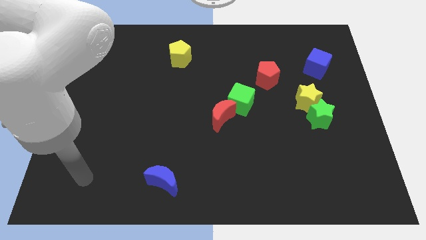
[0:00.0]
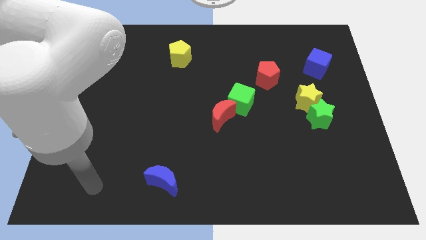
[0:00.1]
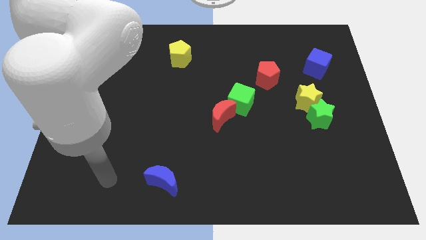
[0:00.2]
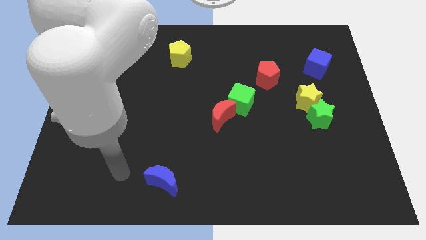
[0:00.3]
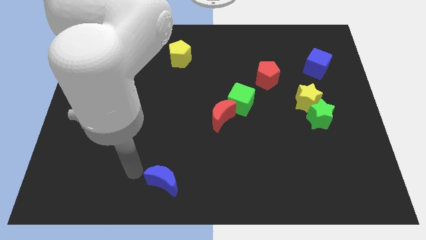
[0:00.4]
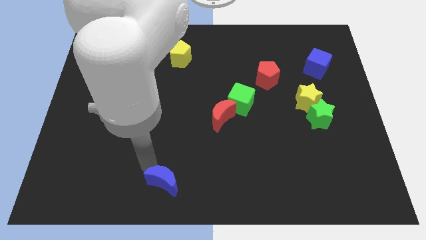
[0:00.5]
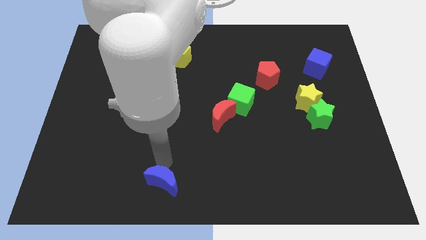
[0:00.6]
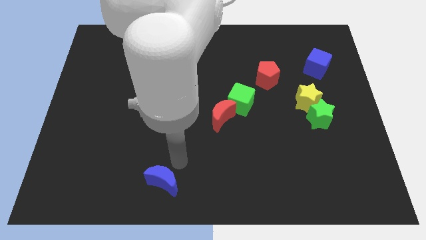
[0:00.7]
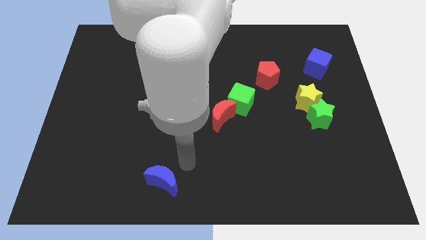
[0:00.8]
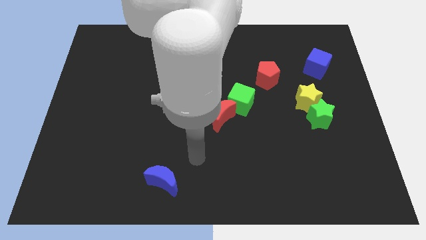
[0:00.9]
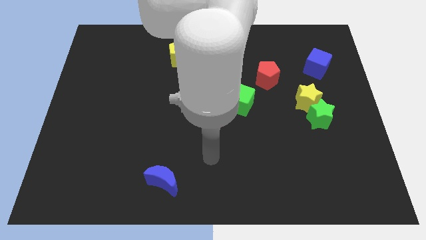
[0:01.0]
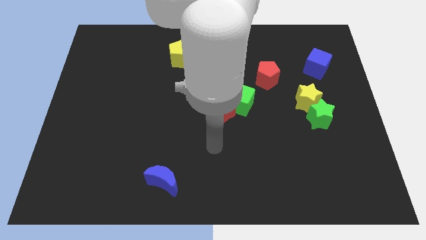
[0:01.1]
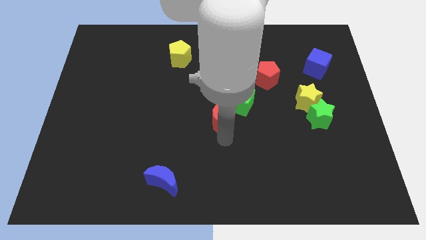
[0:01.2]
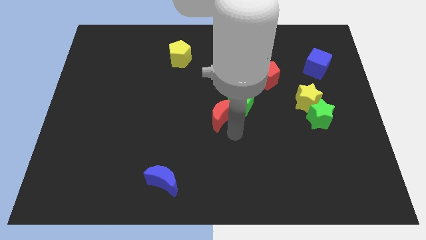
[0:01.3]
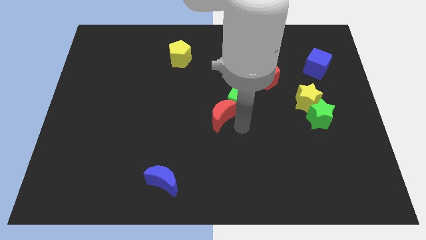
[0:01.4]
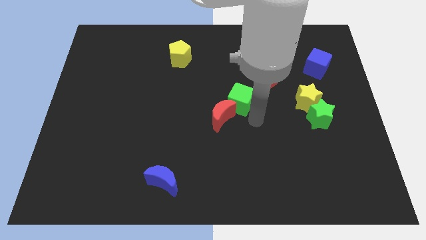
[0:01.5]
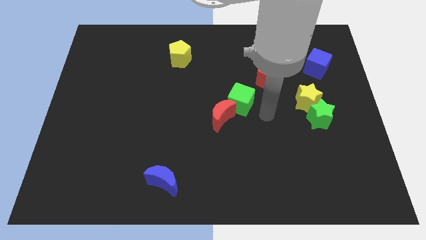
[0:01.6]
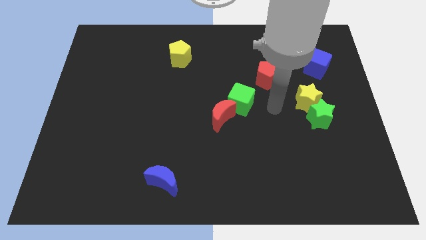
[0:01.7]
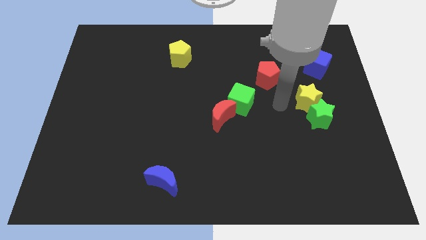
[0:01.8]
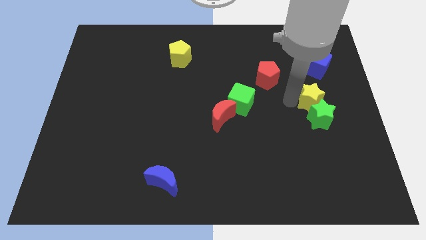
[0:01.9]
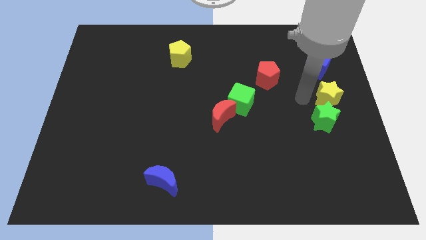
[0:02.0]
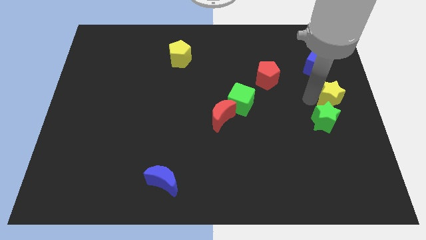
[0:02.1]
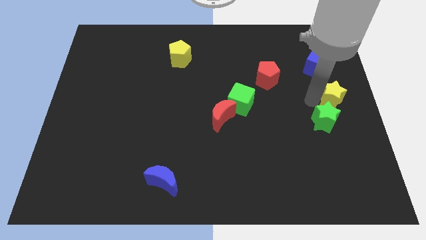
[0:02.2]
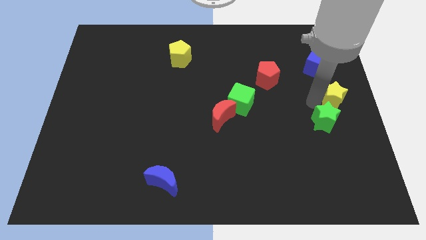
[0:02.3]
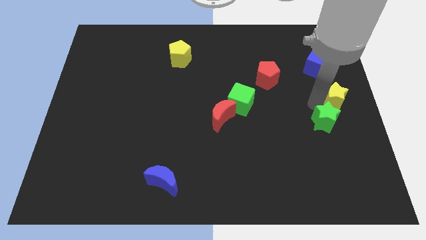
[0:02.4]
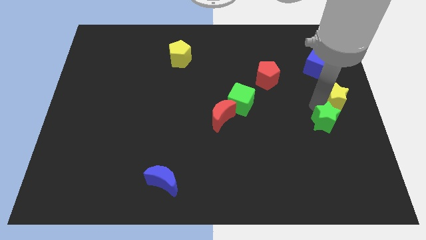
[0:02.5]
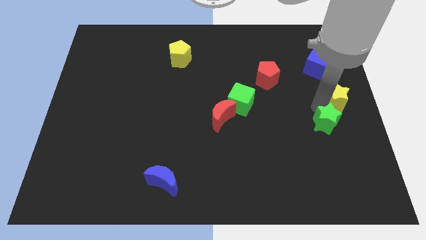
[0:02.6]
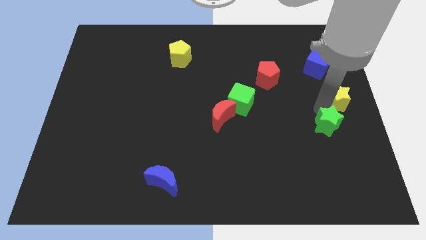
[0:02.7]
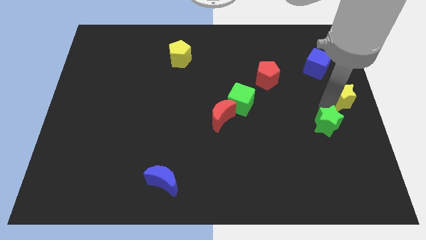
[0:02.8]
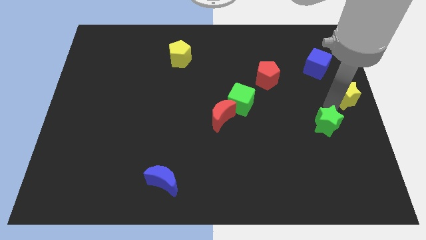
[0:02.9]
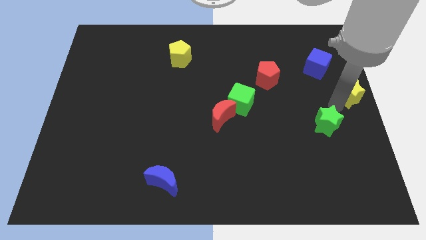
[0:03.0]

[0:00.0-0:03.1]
move the green star away from the yellow star

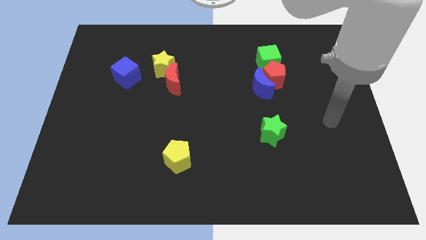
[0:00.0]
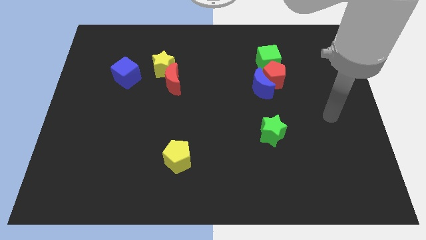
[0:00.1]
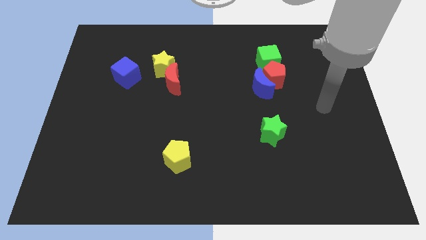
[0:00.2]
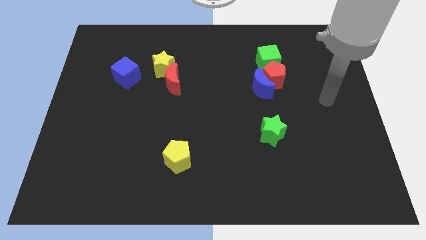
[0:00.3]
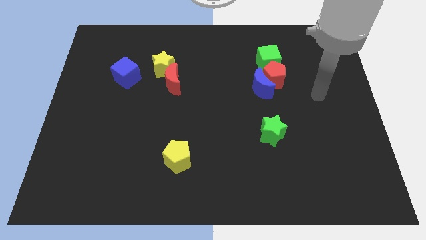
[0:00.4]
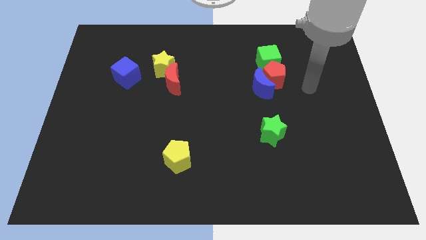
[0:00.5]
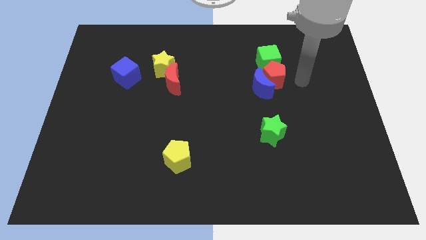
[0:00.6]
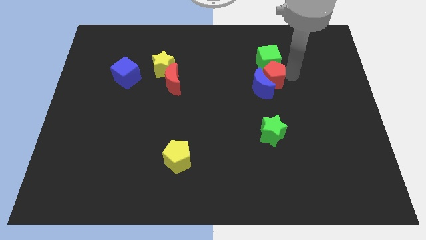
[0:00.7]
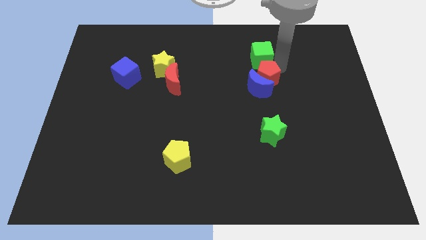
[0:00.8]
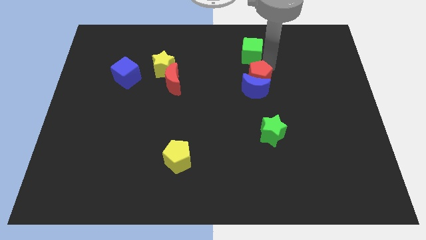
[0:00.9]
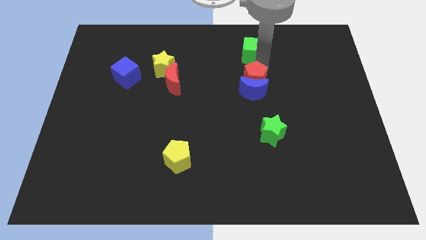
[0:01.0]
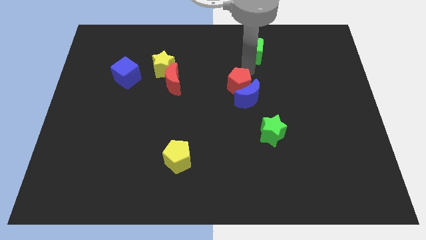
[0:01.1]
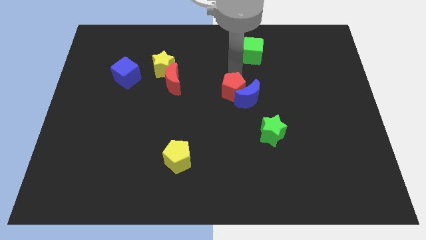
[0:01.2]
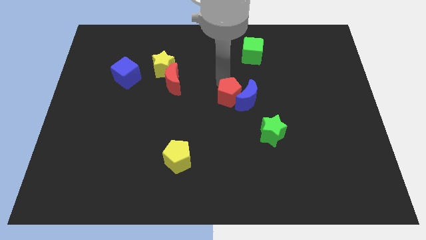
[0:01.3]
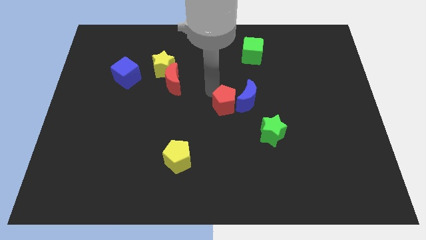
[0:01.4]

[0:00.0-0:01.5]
pull the red pentagon apart from the blue moon and green cube

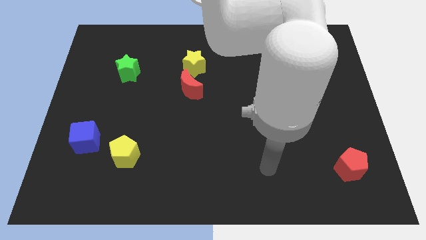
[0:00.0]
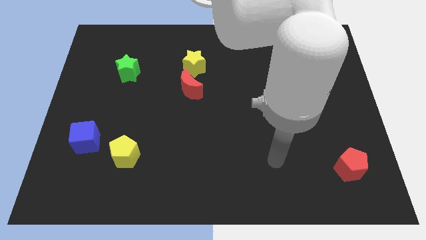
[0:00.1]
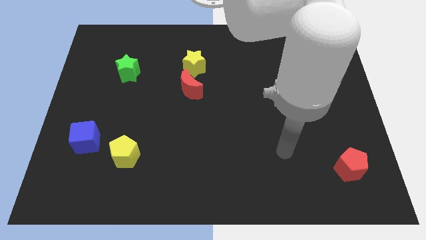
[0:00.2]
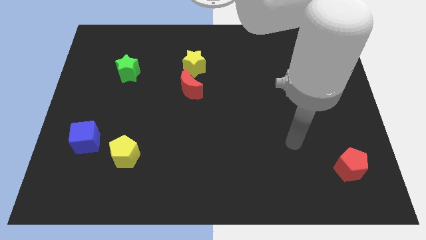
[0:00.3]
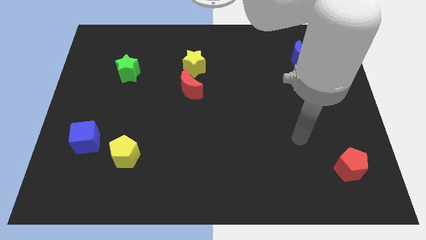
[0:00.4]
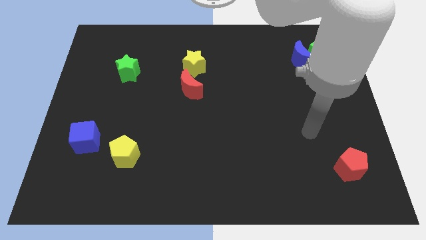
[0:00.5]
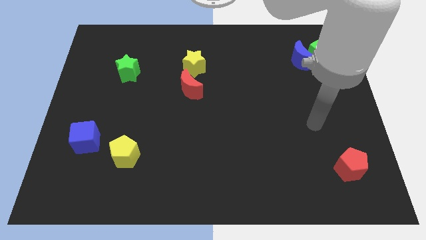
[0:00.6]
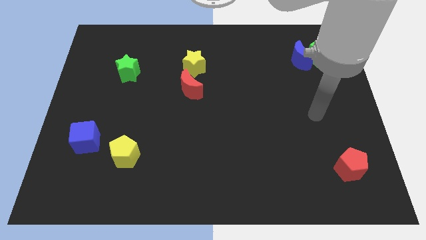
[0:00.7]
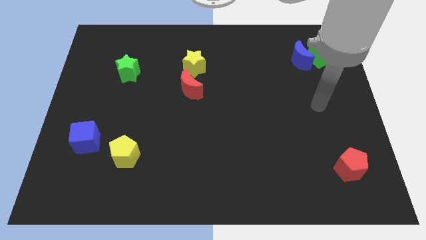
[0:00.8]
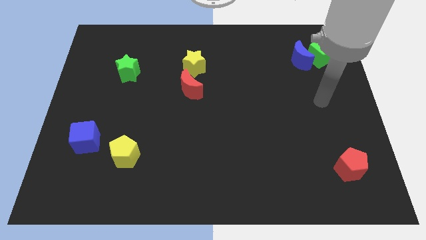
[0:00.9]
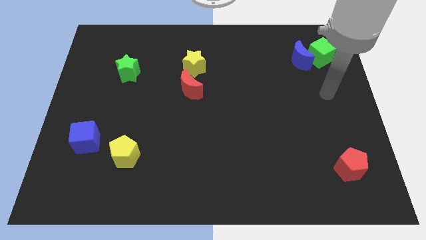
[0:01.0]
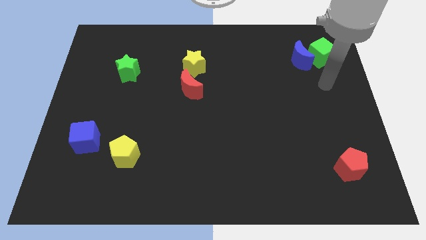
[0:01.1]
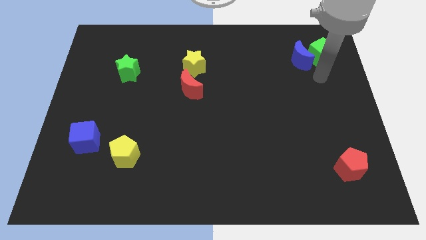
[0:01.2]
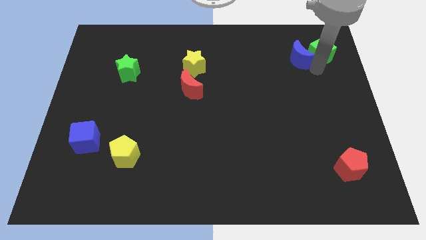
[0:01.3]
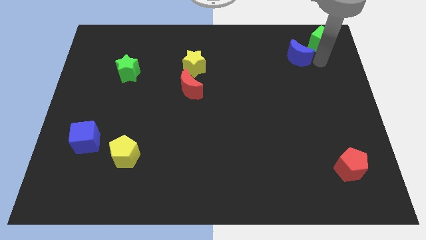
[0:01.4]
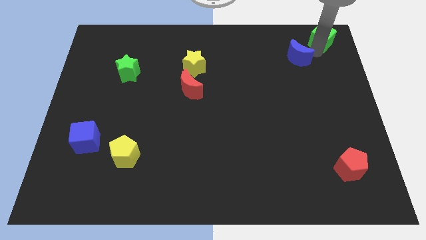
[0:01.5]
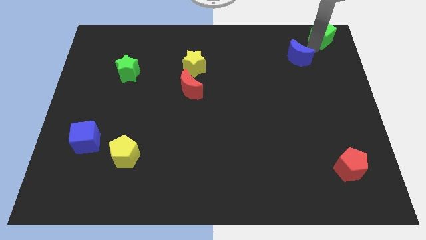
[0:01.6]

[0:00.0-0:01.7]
pull the blue moon apart from the green cube

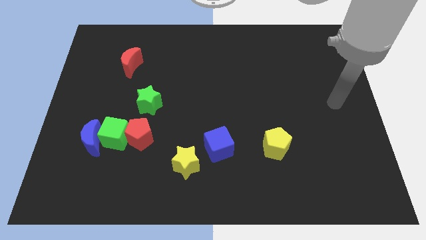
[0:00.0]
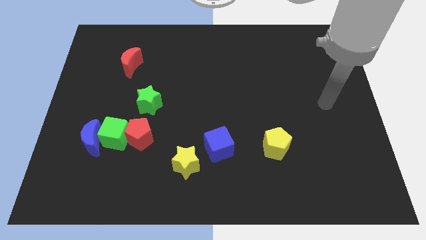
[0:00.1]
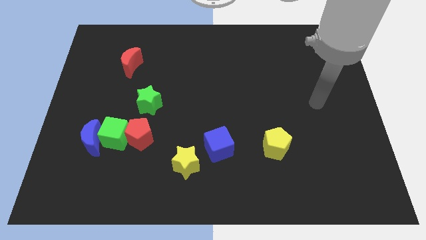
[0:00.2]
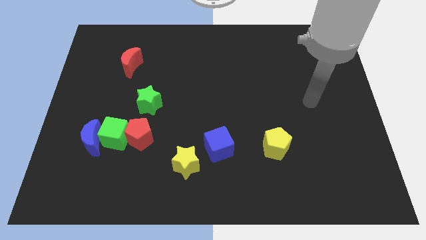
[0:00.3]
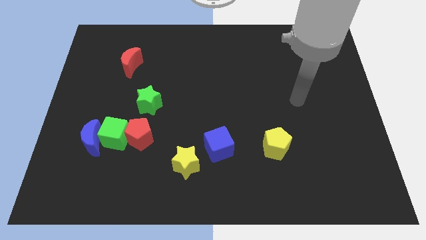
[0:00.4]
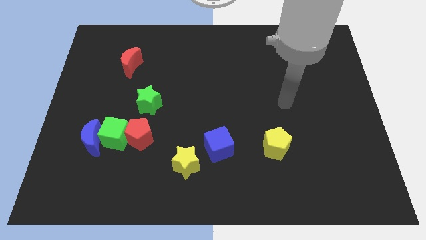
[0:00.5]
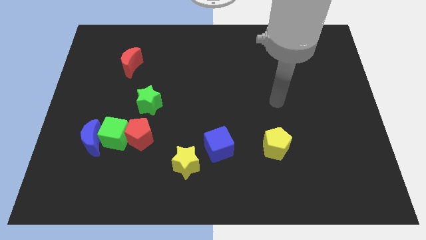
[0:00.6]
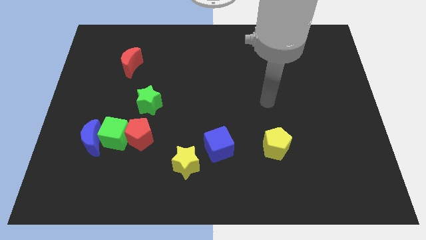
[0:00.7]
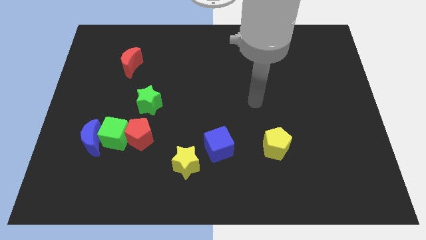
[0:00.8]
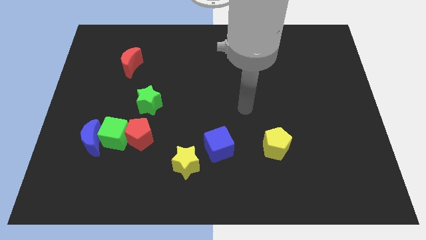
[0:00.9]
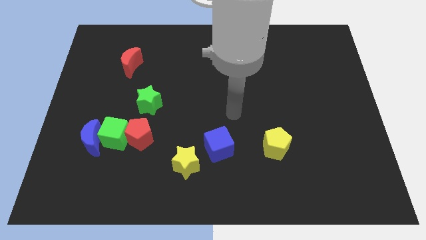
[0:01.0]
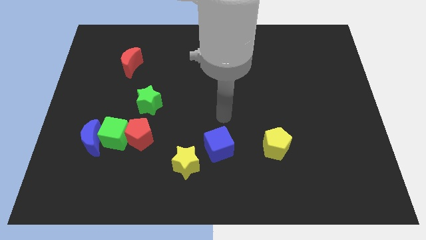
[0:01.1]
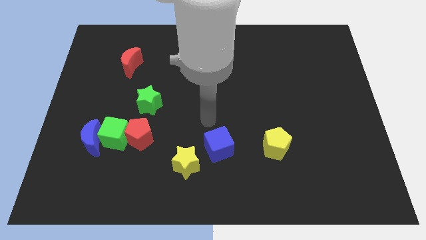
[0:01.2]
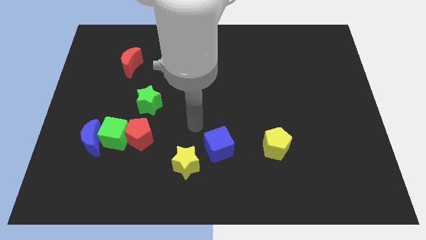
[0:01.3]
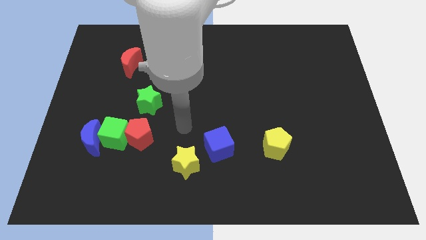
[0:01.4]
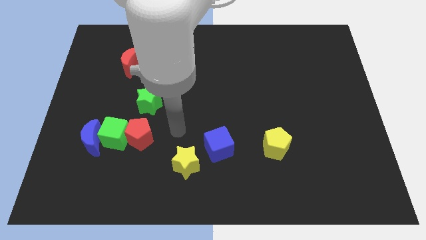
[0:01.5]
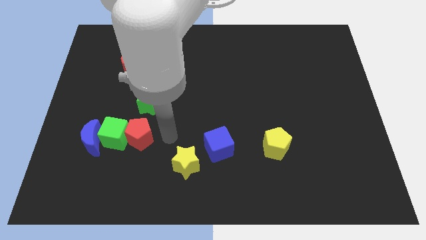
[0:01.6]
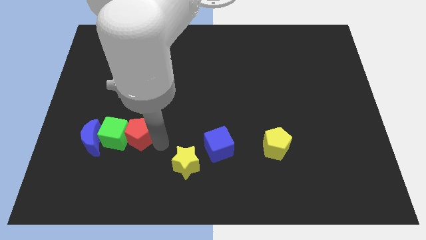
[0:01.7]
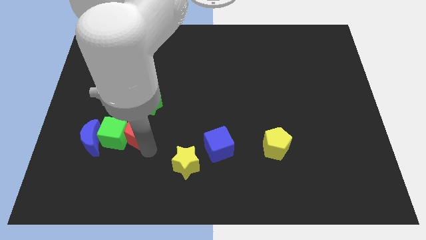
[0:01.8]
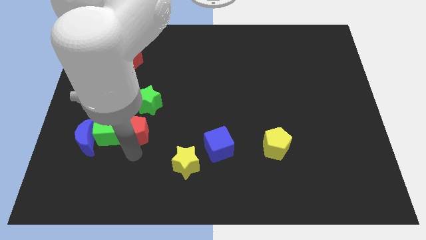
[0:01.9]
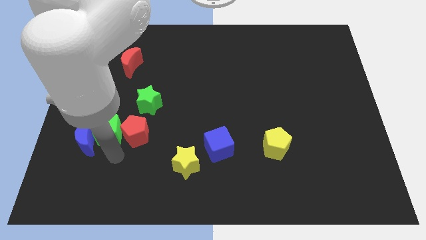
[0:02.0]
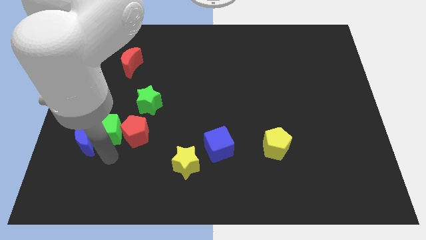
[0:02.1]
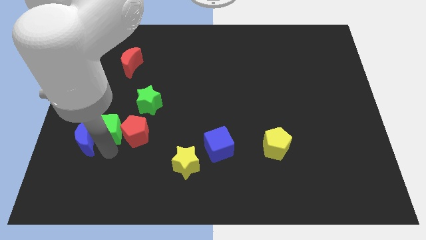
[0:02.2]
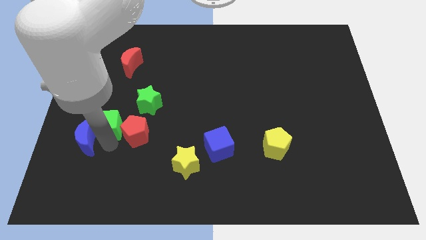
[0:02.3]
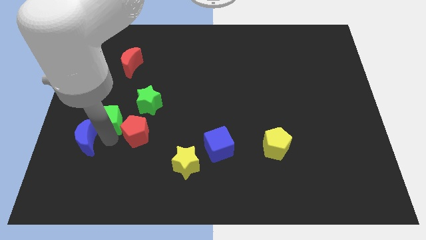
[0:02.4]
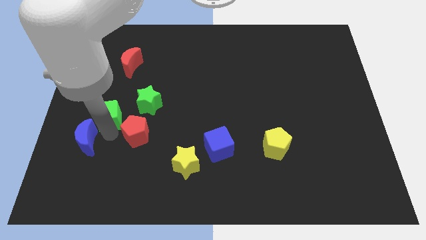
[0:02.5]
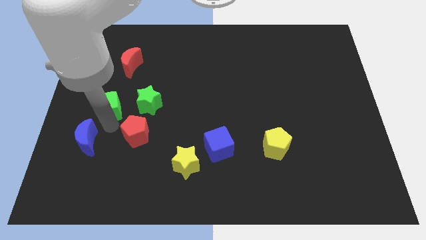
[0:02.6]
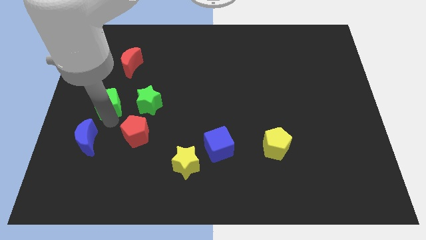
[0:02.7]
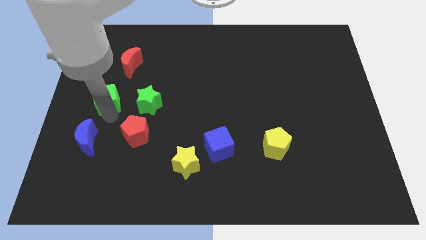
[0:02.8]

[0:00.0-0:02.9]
move the green cube away from the blue moon and red pentagon

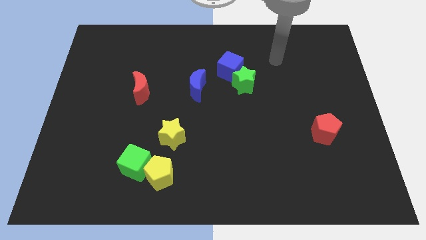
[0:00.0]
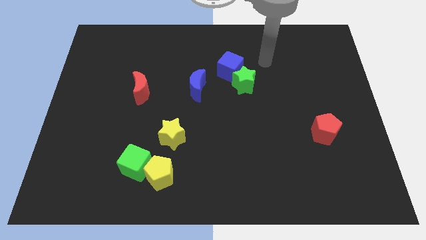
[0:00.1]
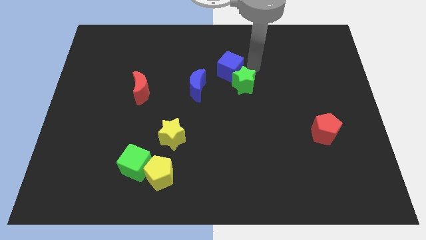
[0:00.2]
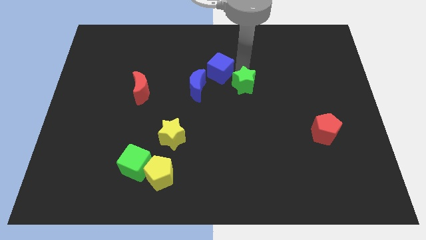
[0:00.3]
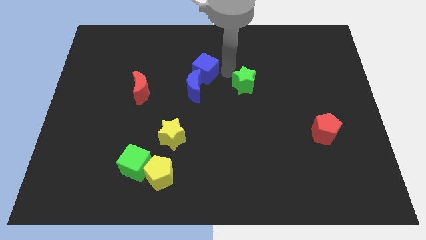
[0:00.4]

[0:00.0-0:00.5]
move the green star away from the blue cube
